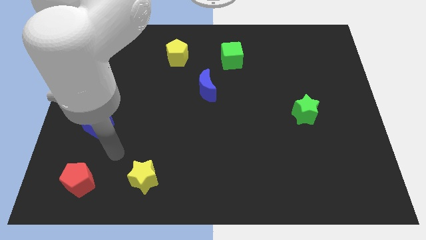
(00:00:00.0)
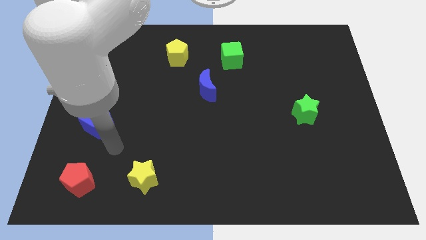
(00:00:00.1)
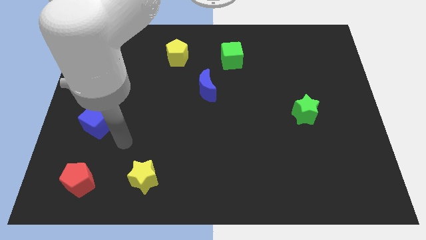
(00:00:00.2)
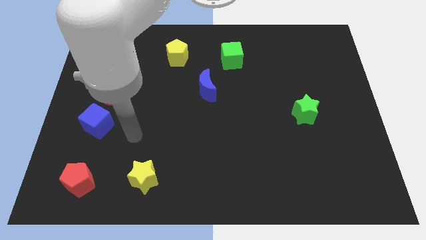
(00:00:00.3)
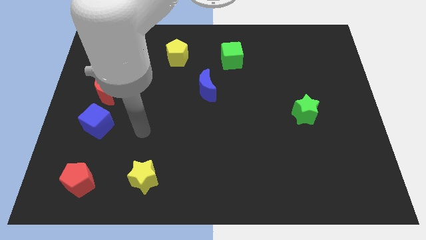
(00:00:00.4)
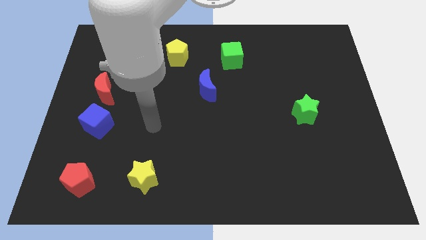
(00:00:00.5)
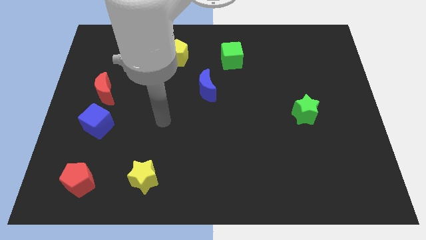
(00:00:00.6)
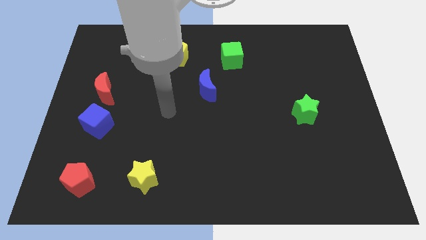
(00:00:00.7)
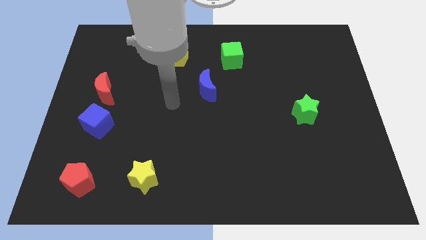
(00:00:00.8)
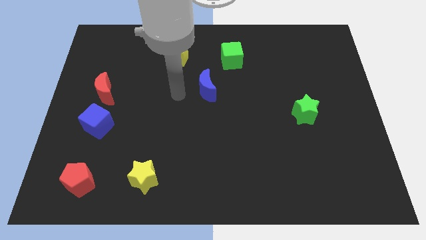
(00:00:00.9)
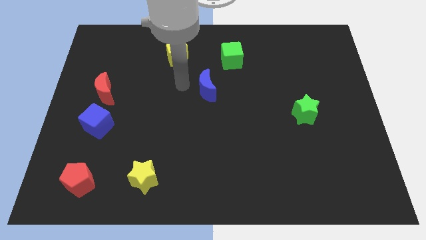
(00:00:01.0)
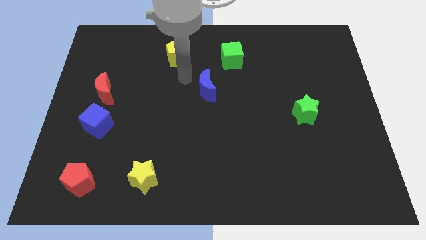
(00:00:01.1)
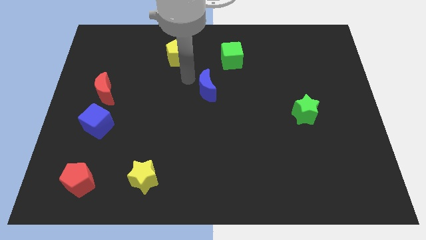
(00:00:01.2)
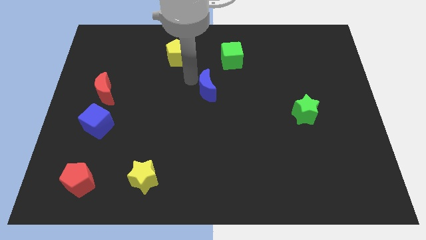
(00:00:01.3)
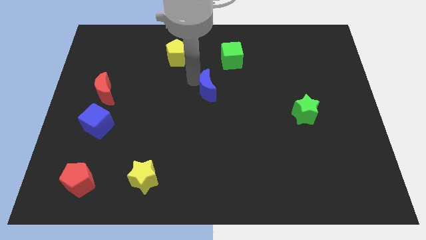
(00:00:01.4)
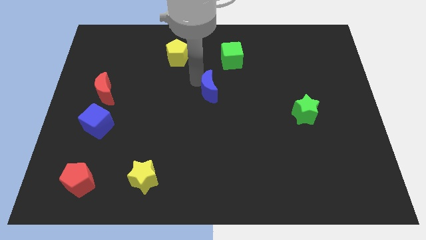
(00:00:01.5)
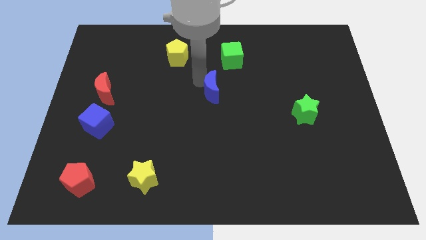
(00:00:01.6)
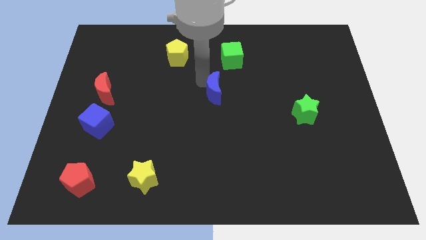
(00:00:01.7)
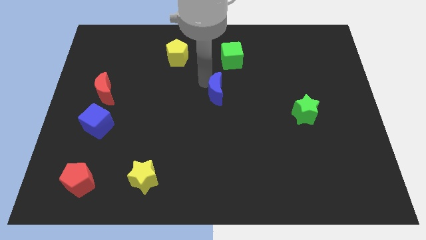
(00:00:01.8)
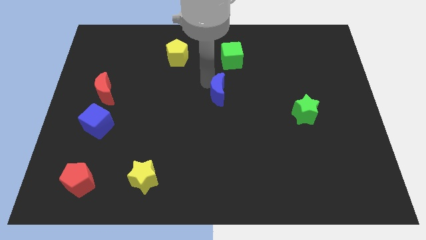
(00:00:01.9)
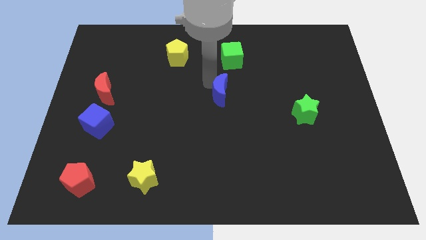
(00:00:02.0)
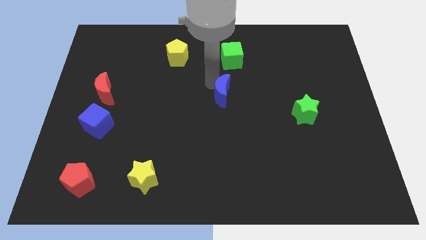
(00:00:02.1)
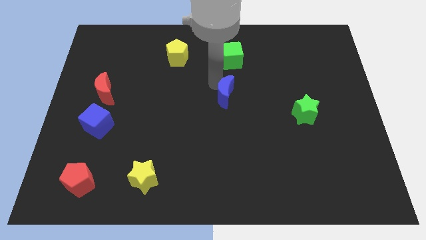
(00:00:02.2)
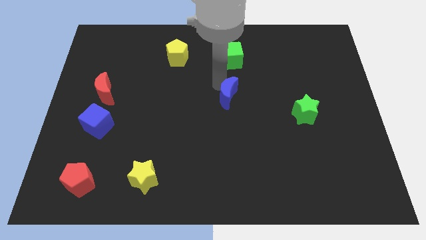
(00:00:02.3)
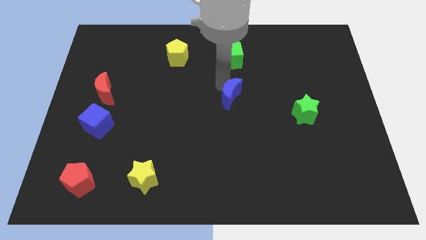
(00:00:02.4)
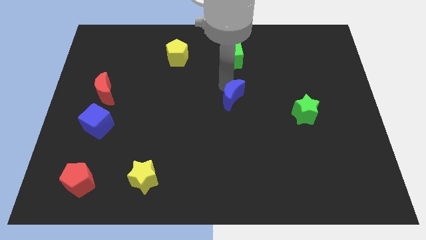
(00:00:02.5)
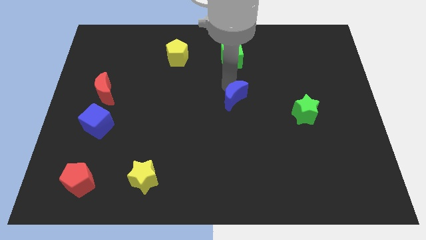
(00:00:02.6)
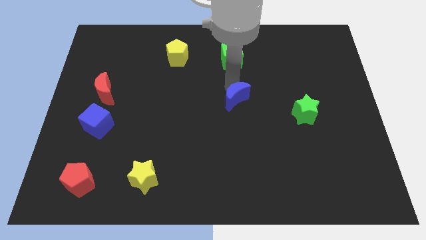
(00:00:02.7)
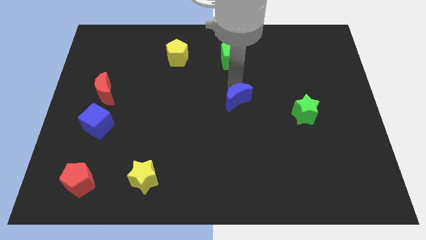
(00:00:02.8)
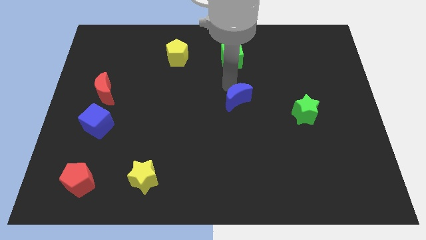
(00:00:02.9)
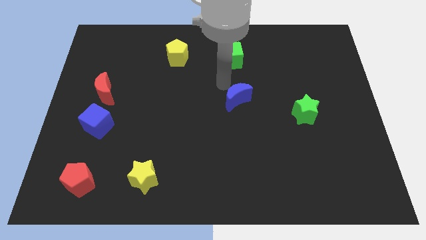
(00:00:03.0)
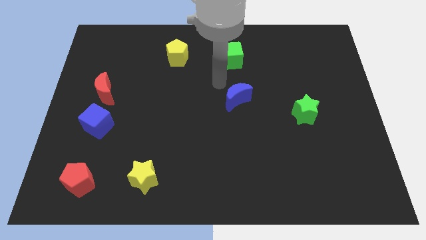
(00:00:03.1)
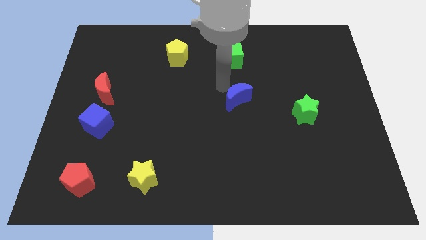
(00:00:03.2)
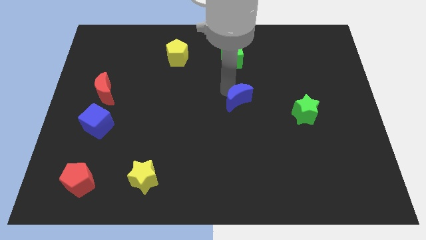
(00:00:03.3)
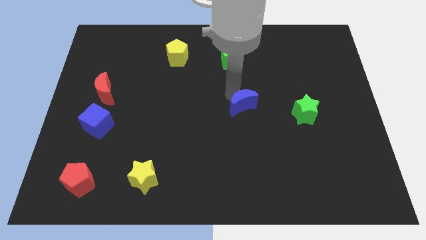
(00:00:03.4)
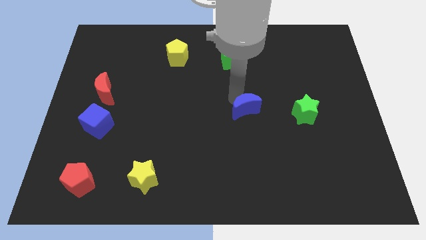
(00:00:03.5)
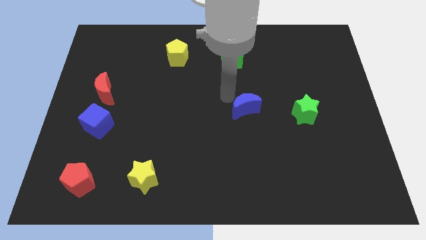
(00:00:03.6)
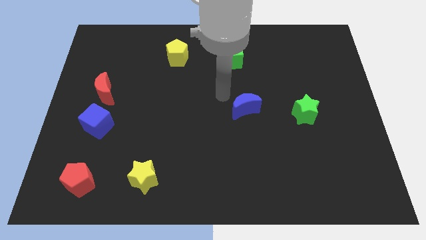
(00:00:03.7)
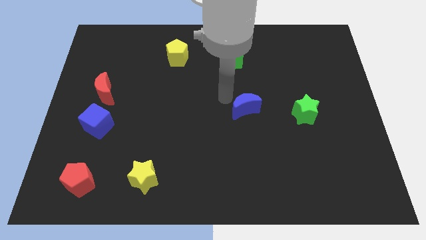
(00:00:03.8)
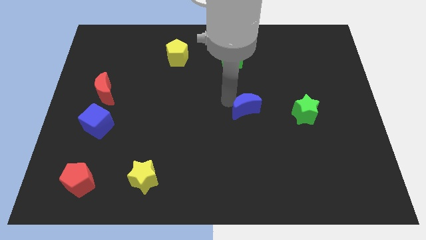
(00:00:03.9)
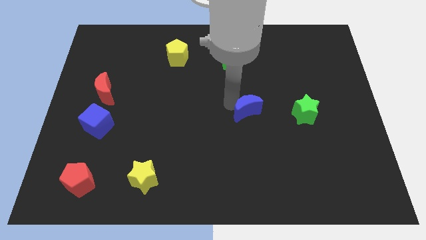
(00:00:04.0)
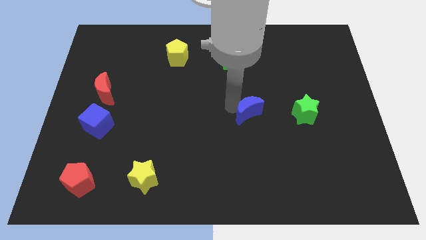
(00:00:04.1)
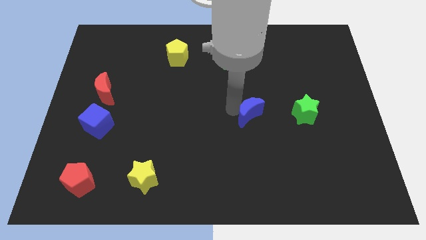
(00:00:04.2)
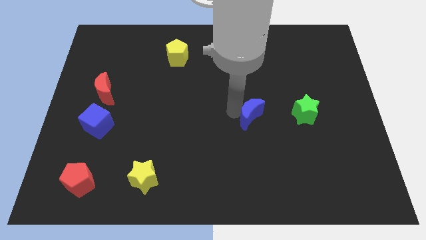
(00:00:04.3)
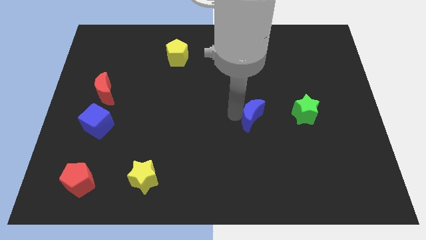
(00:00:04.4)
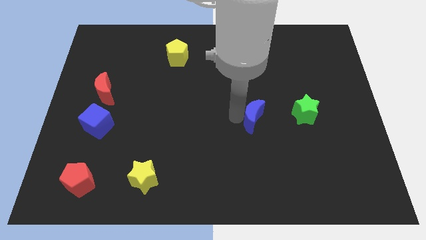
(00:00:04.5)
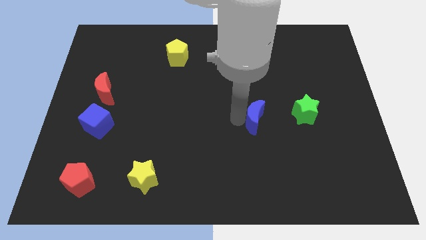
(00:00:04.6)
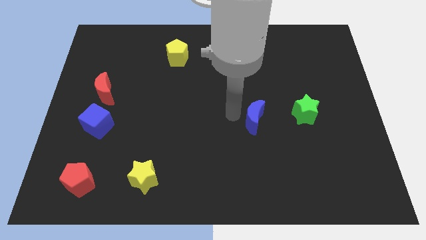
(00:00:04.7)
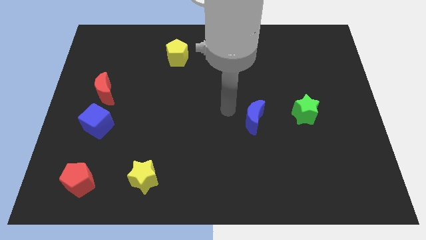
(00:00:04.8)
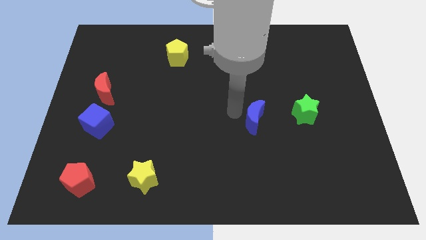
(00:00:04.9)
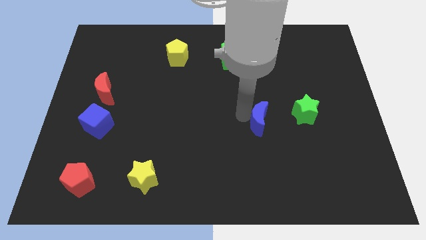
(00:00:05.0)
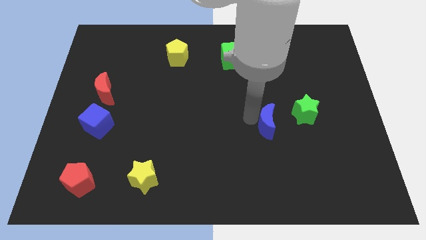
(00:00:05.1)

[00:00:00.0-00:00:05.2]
push the blue moon to the bottom left of the green star

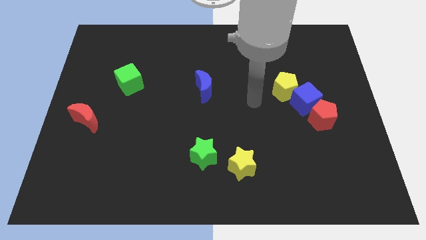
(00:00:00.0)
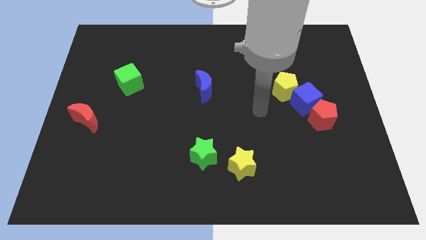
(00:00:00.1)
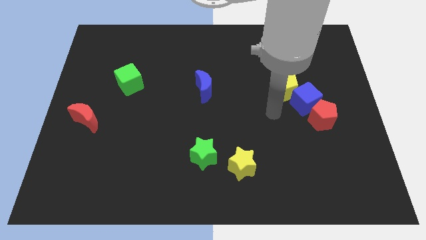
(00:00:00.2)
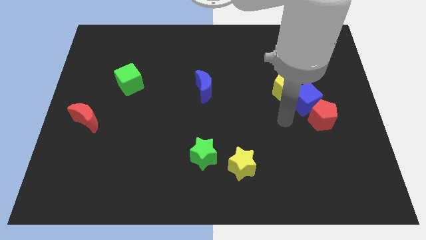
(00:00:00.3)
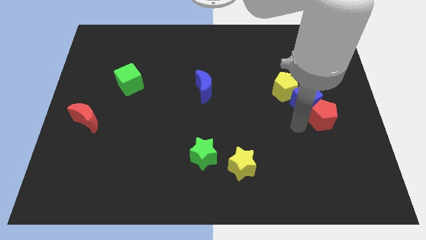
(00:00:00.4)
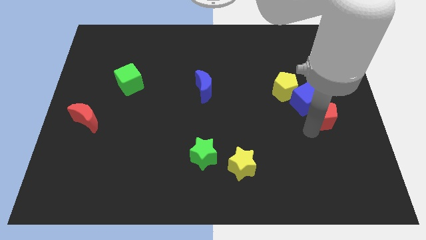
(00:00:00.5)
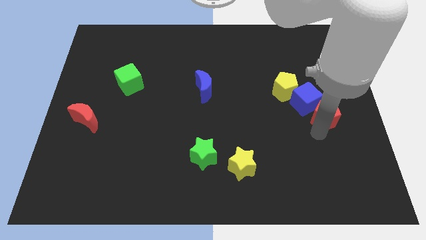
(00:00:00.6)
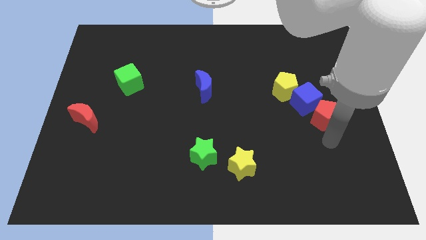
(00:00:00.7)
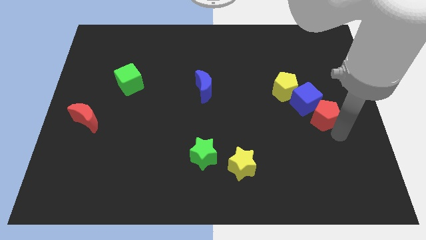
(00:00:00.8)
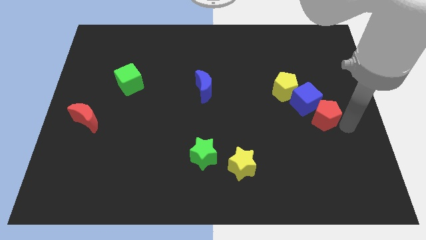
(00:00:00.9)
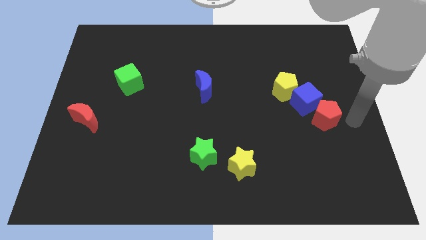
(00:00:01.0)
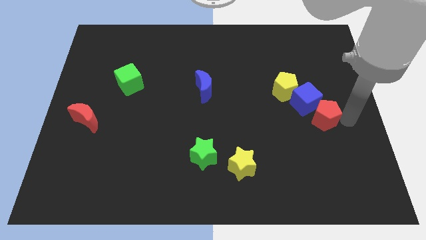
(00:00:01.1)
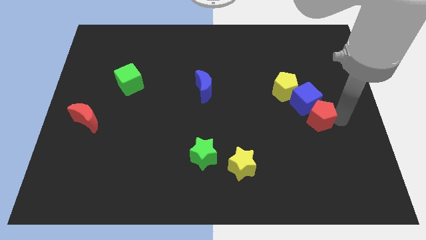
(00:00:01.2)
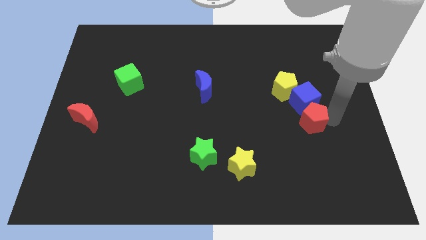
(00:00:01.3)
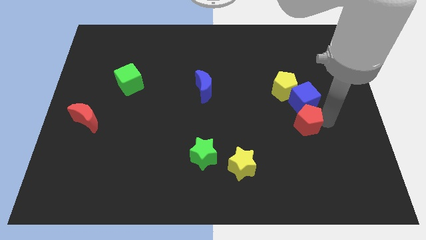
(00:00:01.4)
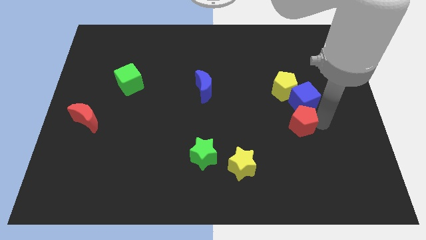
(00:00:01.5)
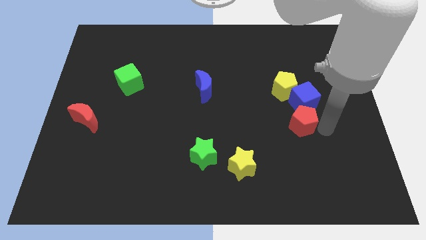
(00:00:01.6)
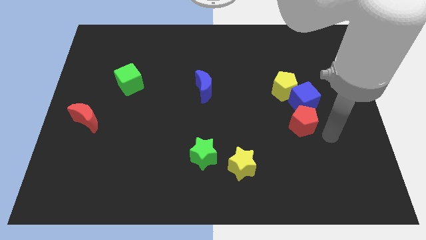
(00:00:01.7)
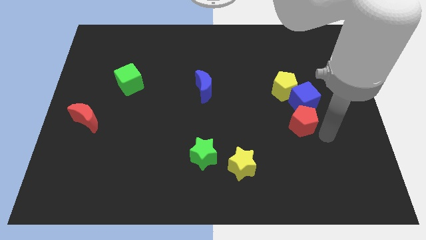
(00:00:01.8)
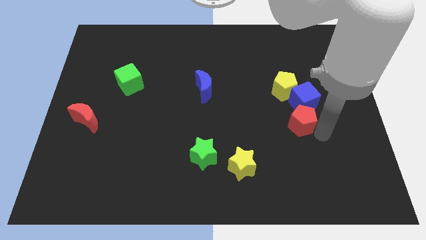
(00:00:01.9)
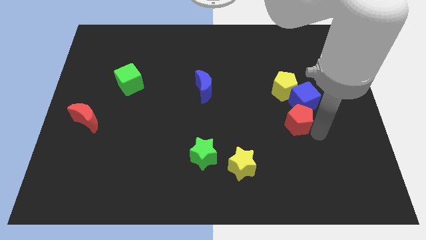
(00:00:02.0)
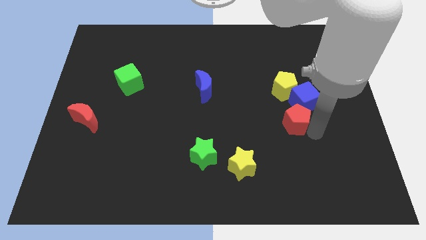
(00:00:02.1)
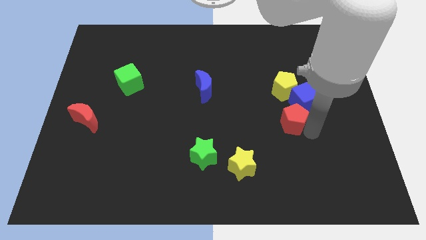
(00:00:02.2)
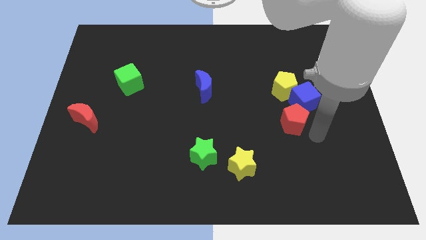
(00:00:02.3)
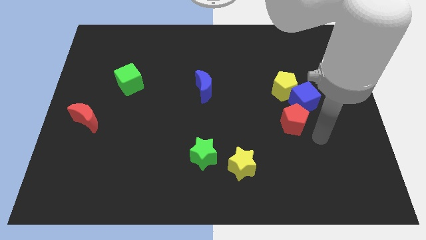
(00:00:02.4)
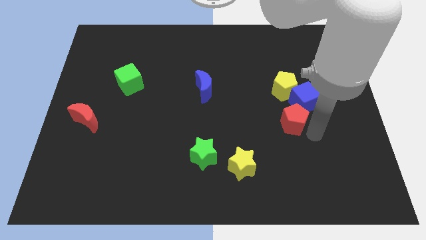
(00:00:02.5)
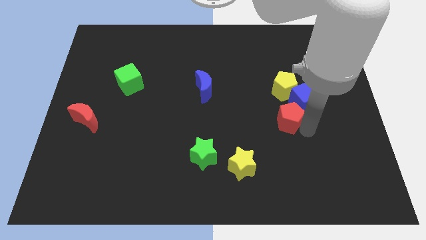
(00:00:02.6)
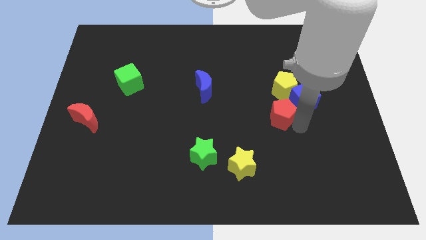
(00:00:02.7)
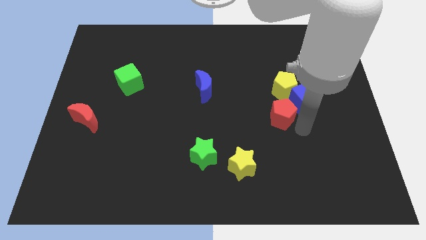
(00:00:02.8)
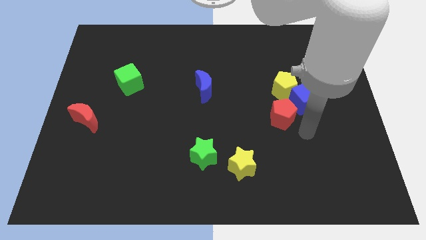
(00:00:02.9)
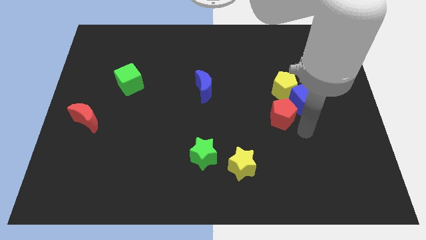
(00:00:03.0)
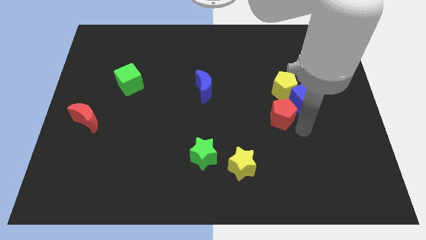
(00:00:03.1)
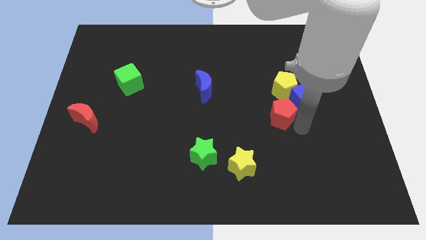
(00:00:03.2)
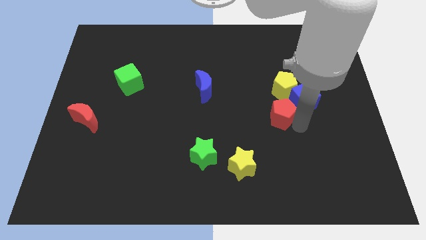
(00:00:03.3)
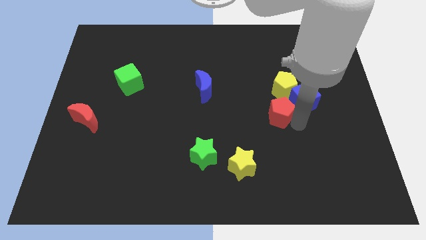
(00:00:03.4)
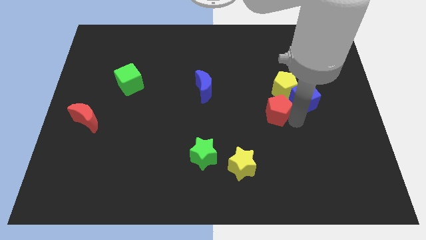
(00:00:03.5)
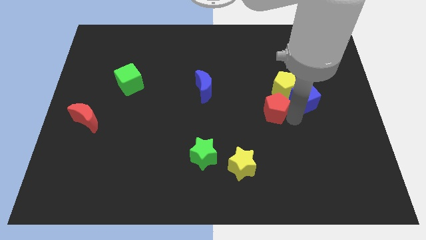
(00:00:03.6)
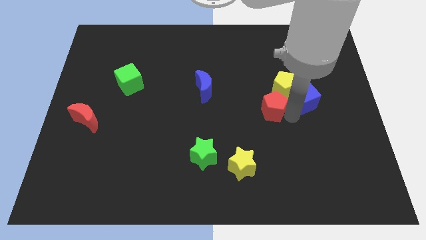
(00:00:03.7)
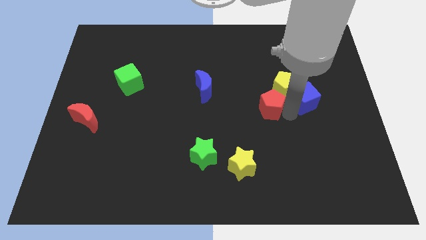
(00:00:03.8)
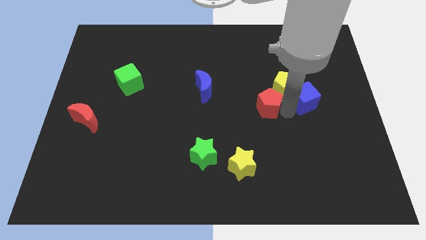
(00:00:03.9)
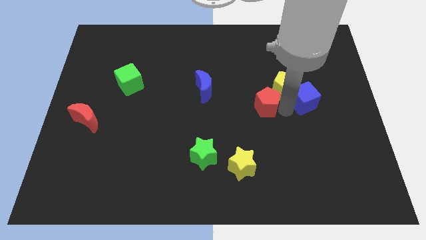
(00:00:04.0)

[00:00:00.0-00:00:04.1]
push the red pentagon left of the yellow pentagon
